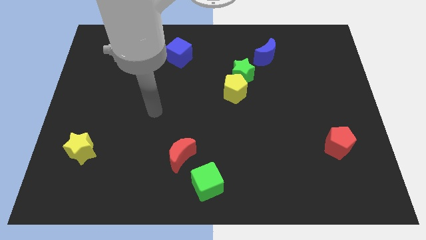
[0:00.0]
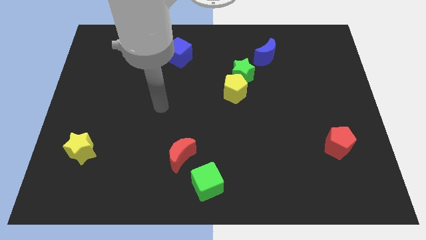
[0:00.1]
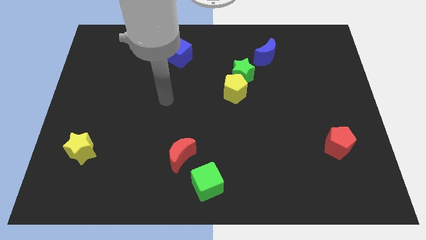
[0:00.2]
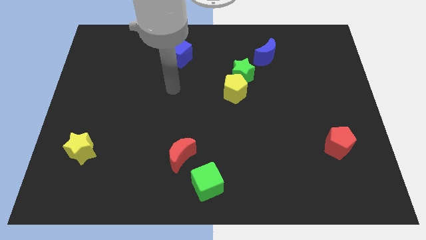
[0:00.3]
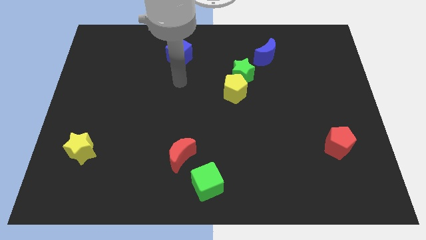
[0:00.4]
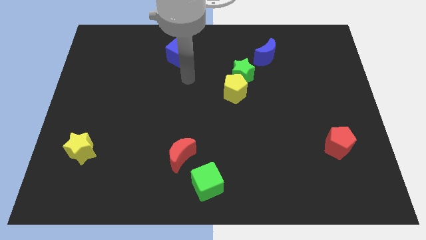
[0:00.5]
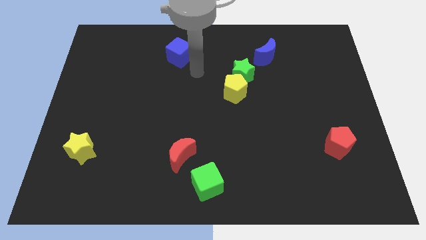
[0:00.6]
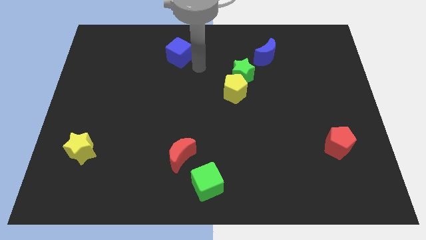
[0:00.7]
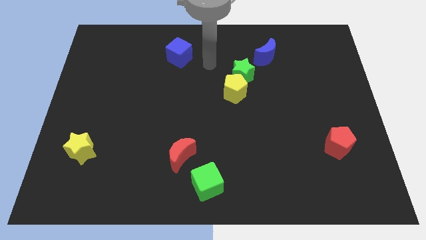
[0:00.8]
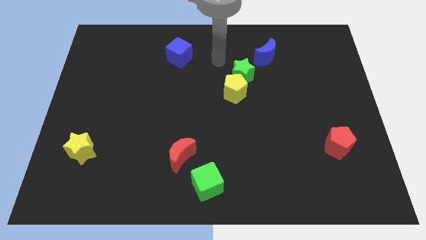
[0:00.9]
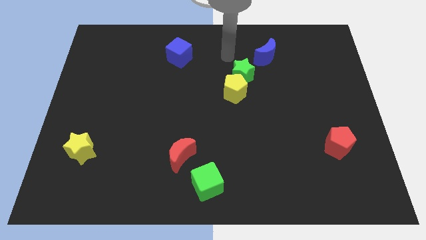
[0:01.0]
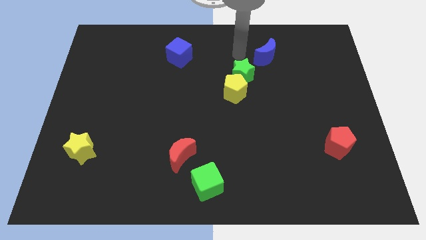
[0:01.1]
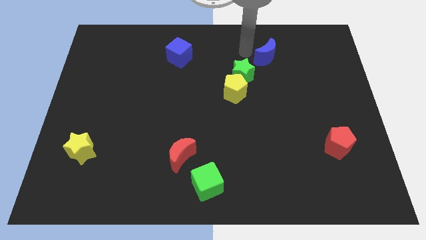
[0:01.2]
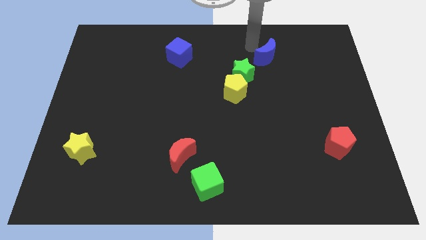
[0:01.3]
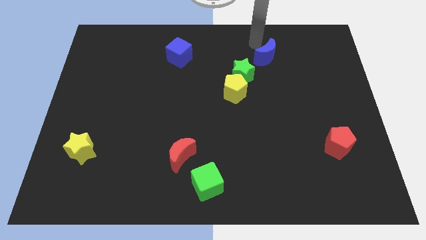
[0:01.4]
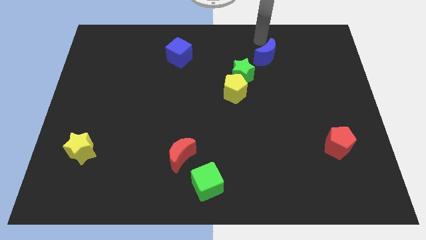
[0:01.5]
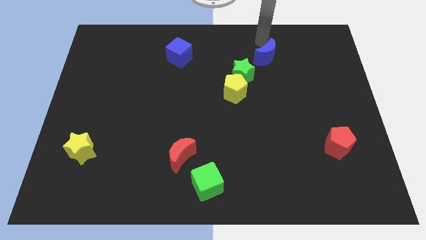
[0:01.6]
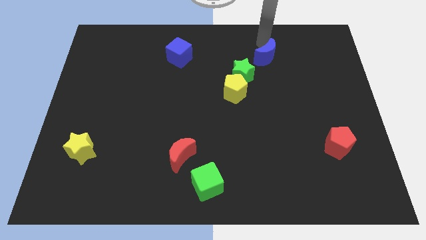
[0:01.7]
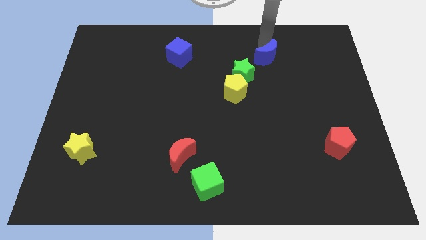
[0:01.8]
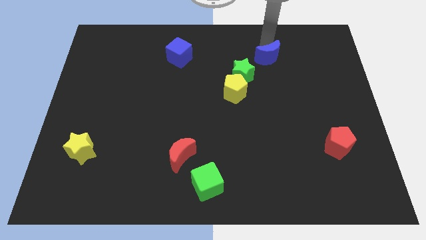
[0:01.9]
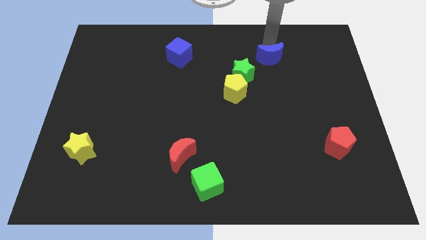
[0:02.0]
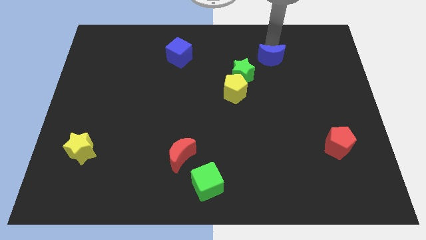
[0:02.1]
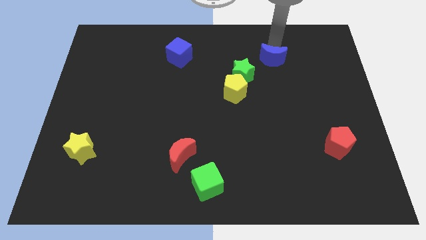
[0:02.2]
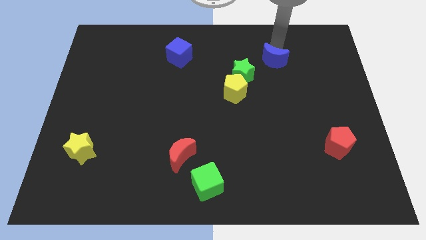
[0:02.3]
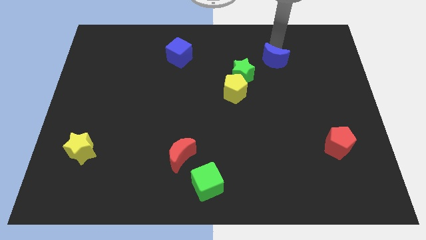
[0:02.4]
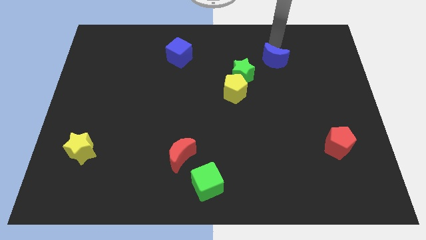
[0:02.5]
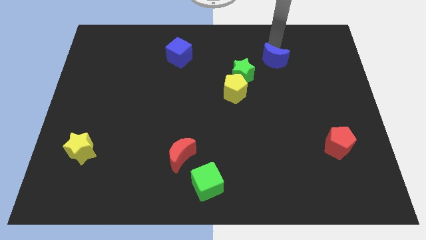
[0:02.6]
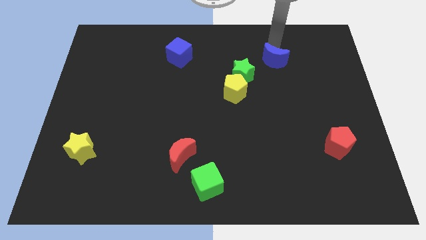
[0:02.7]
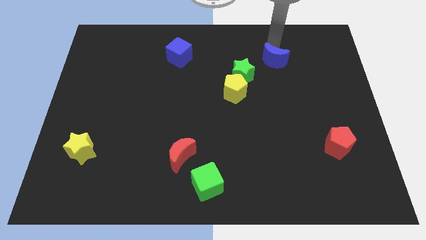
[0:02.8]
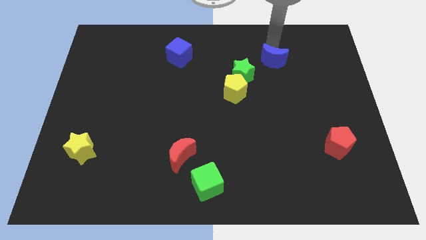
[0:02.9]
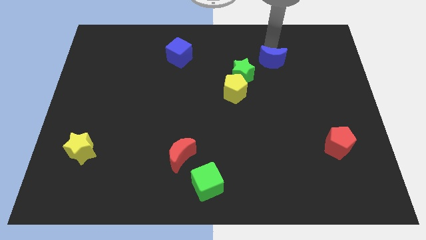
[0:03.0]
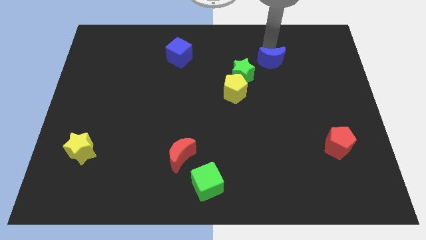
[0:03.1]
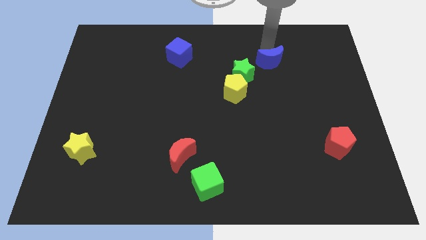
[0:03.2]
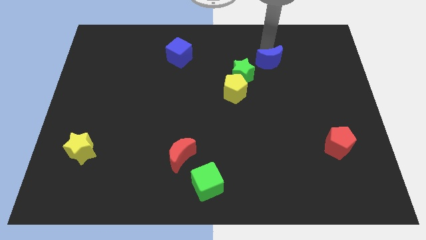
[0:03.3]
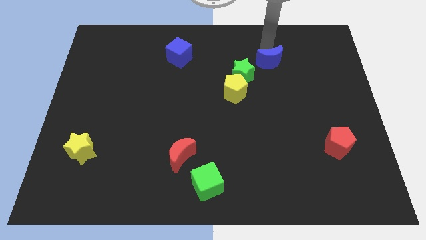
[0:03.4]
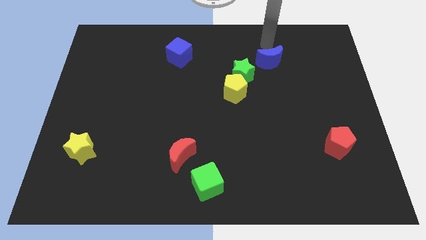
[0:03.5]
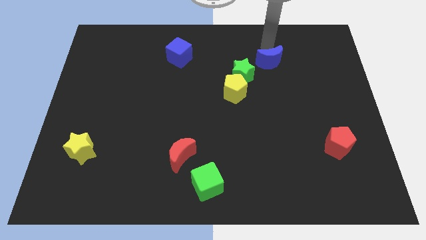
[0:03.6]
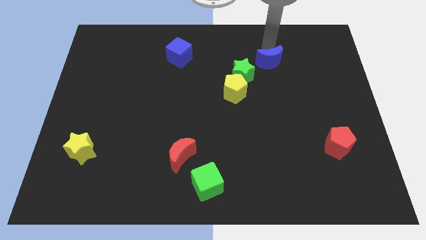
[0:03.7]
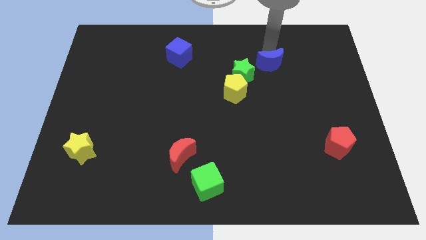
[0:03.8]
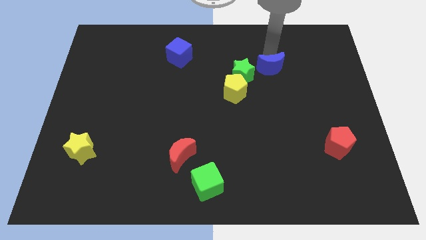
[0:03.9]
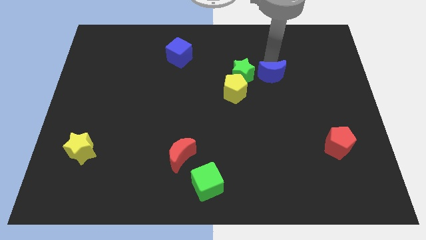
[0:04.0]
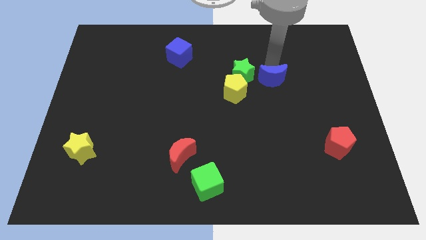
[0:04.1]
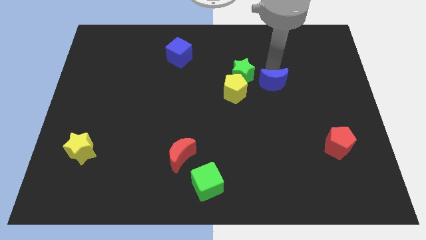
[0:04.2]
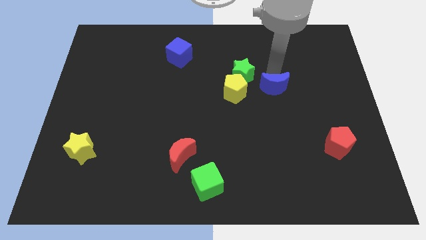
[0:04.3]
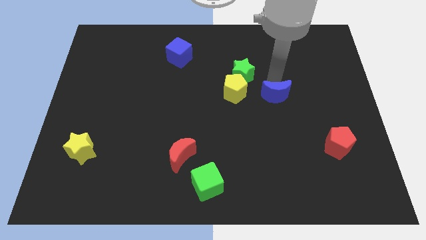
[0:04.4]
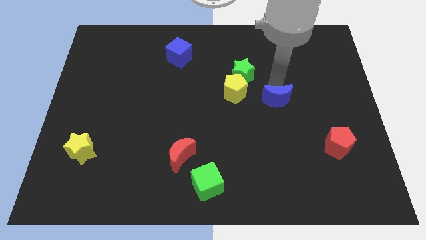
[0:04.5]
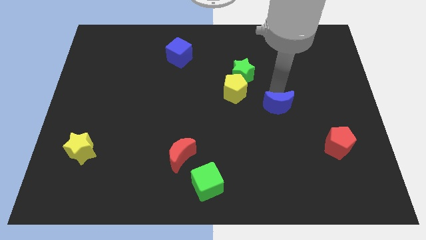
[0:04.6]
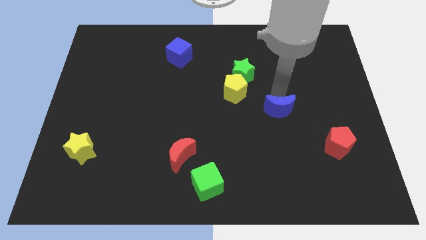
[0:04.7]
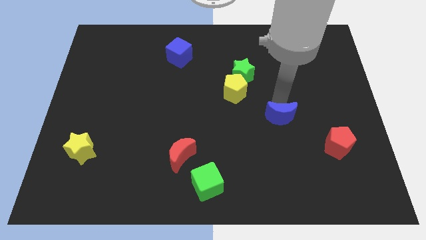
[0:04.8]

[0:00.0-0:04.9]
move the blue moon down

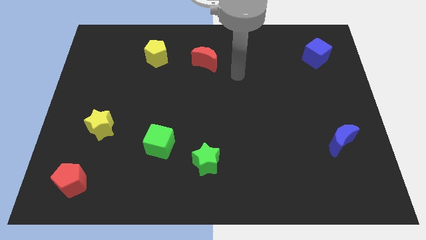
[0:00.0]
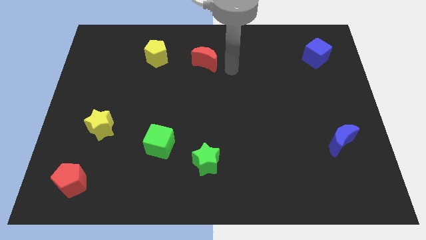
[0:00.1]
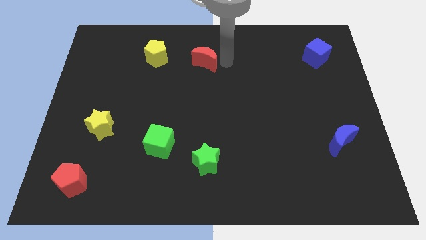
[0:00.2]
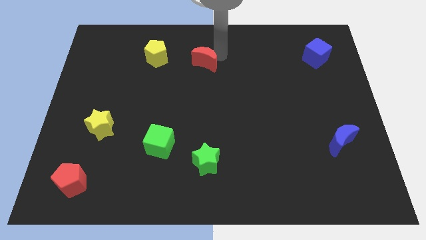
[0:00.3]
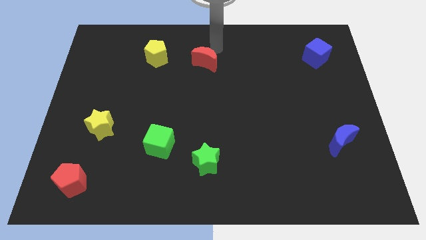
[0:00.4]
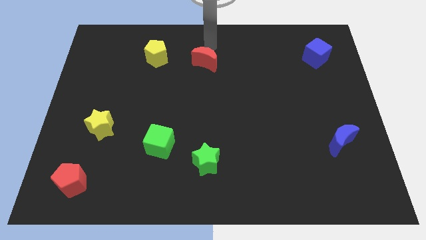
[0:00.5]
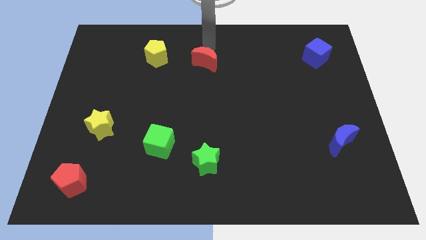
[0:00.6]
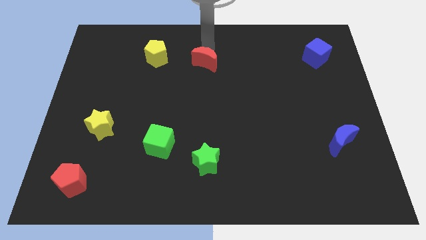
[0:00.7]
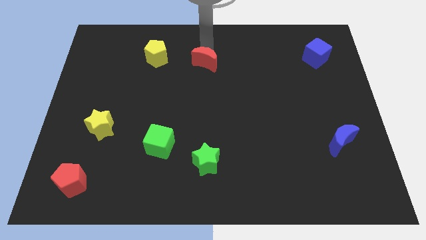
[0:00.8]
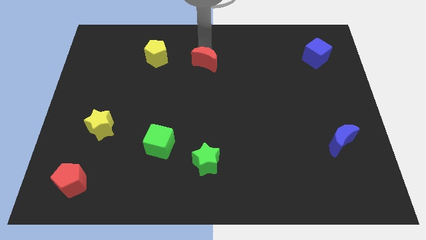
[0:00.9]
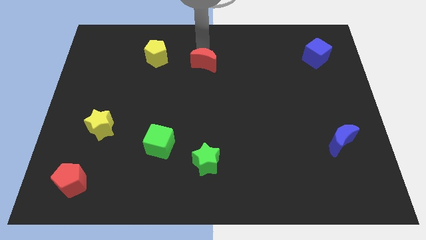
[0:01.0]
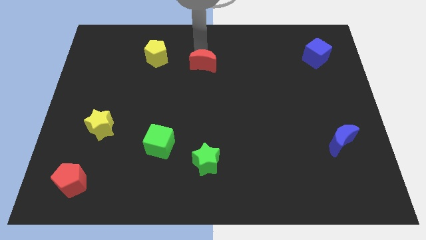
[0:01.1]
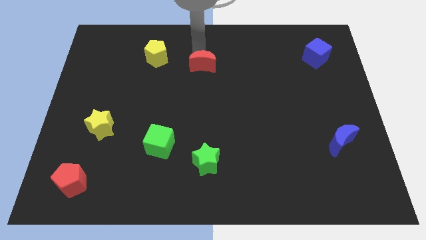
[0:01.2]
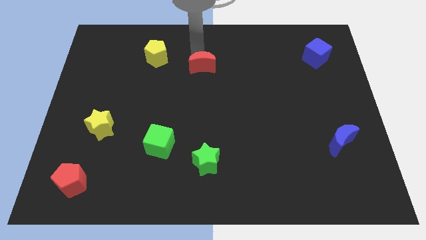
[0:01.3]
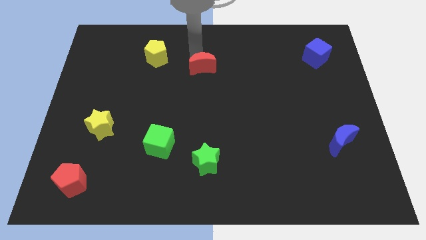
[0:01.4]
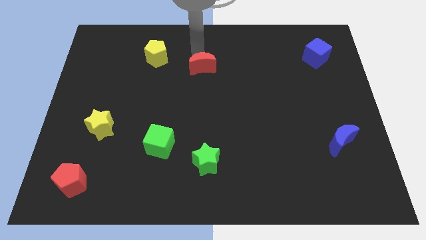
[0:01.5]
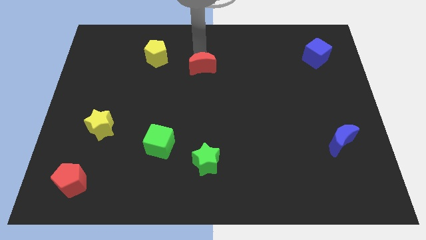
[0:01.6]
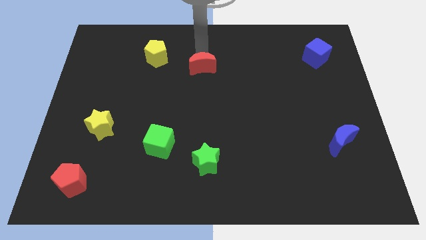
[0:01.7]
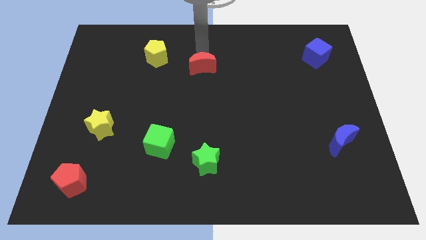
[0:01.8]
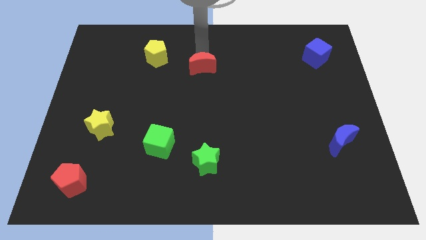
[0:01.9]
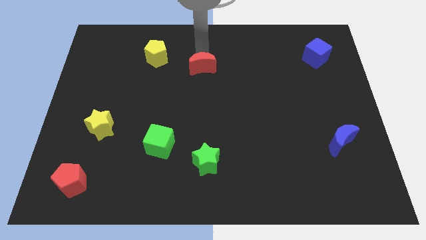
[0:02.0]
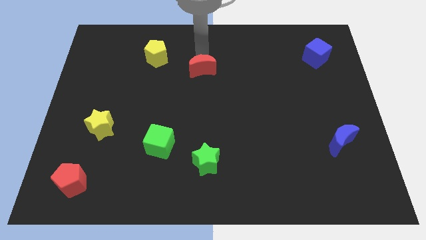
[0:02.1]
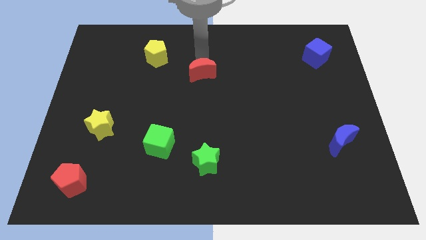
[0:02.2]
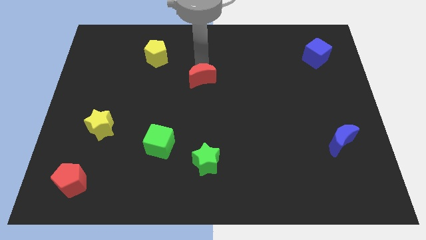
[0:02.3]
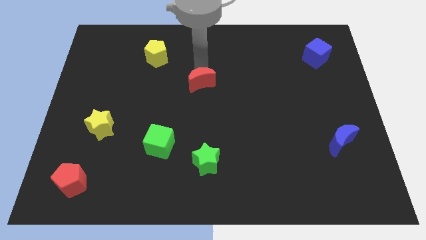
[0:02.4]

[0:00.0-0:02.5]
push the red moon down a little

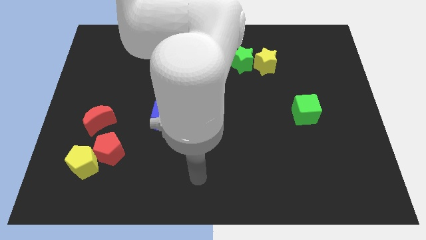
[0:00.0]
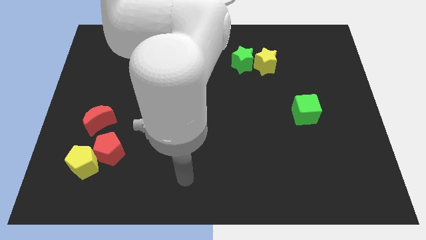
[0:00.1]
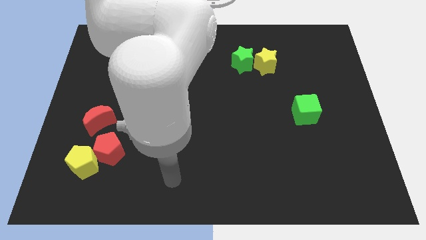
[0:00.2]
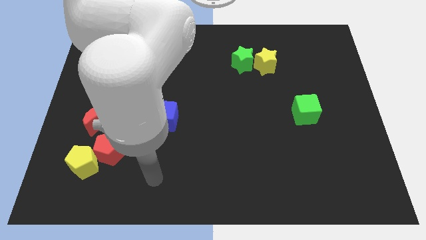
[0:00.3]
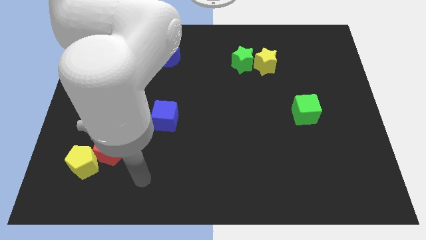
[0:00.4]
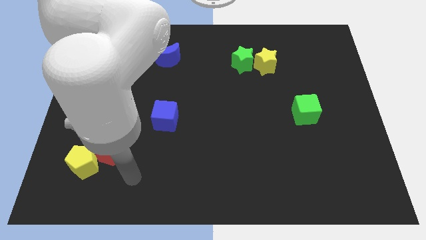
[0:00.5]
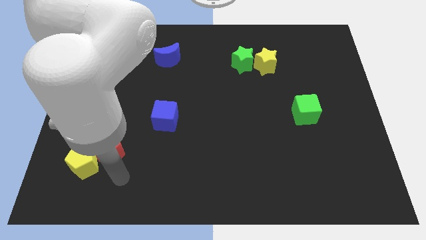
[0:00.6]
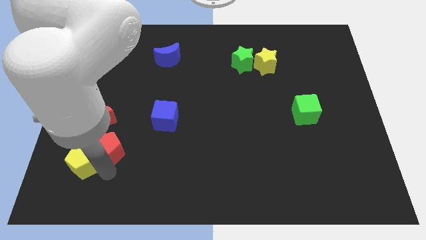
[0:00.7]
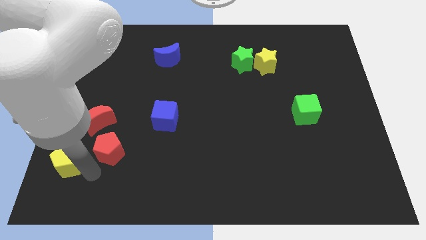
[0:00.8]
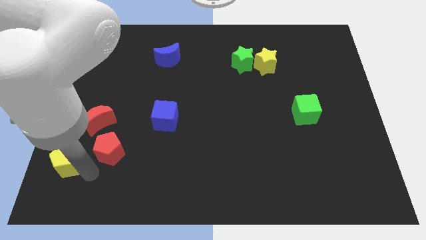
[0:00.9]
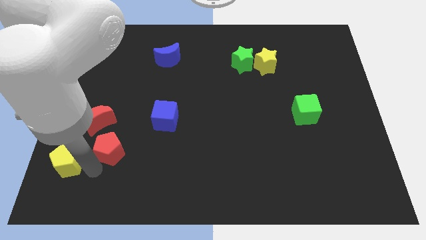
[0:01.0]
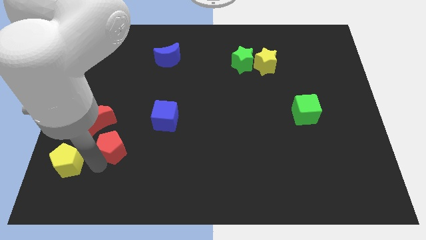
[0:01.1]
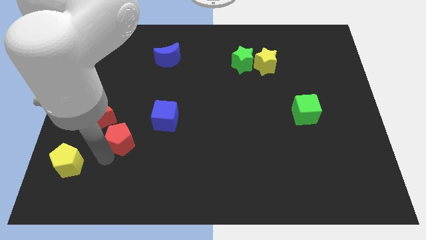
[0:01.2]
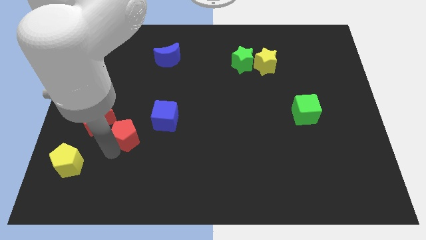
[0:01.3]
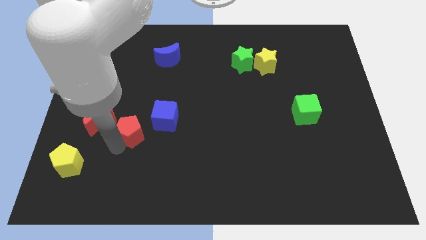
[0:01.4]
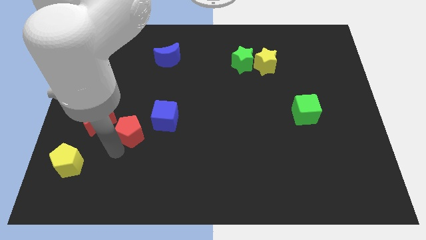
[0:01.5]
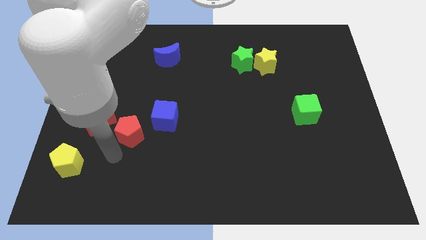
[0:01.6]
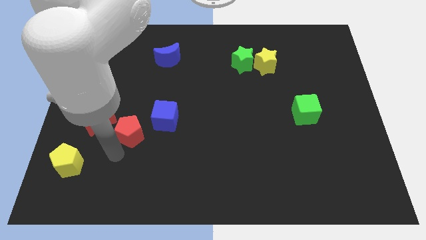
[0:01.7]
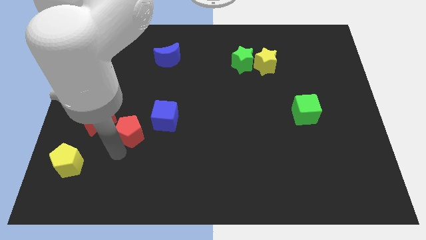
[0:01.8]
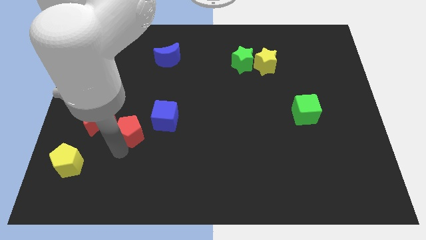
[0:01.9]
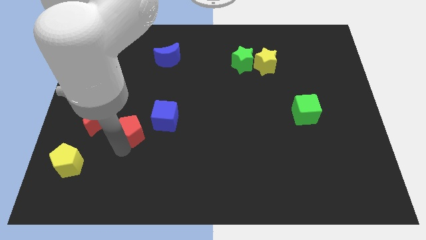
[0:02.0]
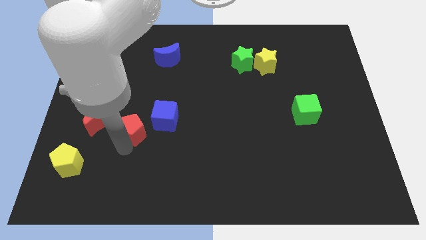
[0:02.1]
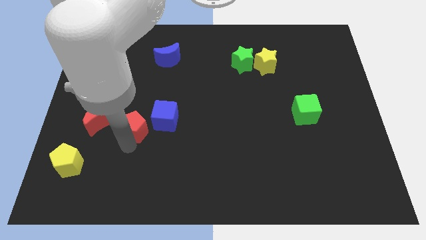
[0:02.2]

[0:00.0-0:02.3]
move the red pentagon a little bit diagonally upwards and to the right
